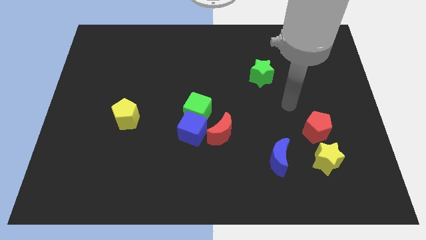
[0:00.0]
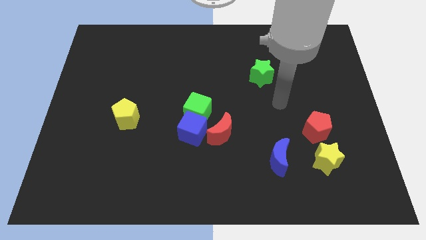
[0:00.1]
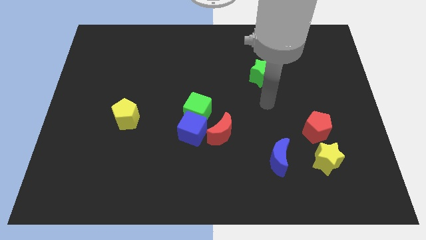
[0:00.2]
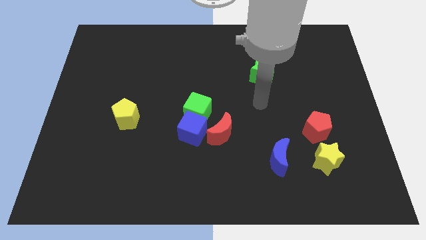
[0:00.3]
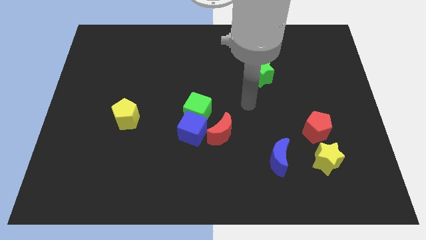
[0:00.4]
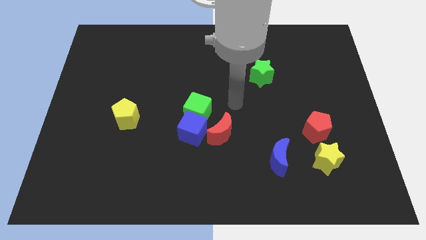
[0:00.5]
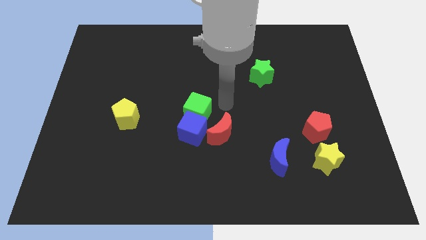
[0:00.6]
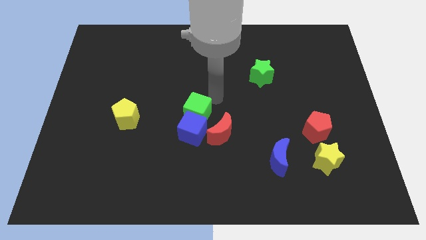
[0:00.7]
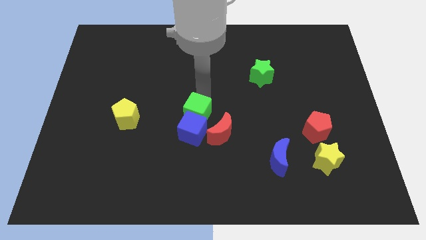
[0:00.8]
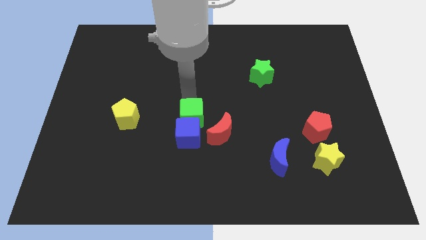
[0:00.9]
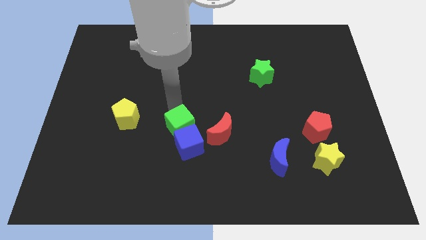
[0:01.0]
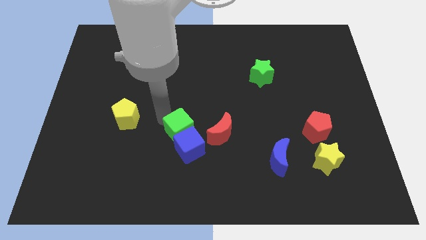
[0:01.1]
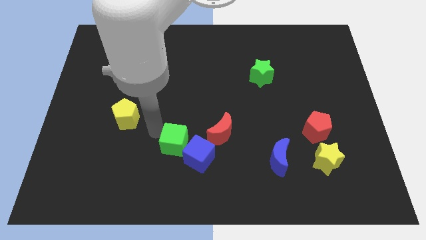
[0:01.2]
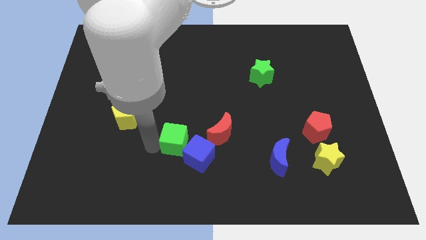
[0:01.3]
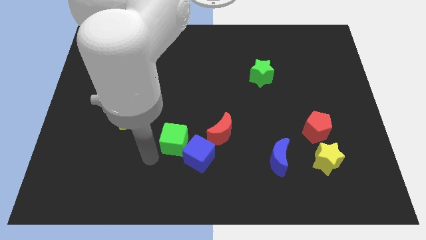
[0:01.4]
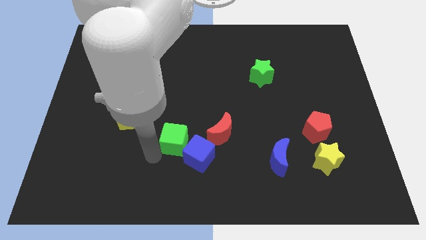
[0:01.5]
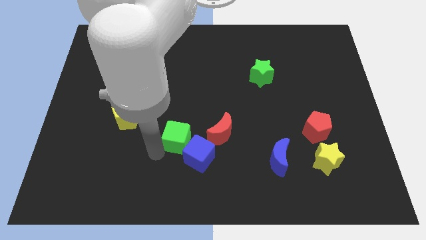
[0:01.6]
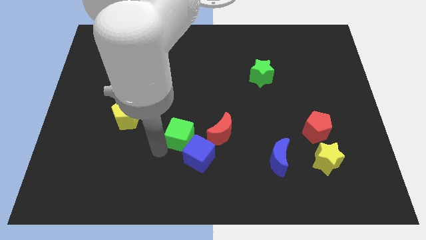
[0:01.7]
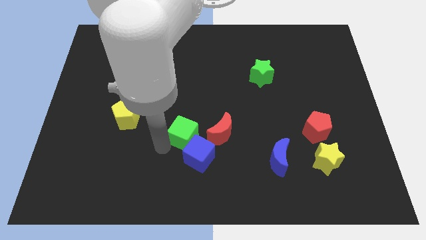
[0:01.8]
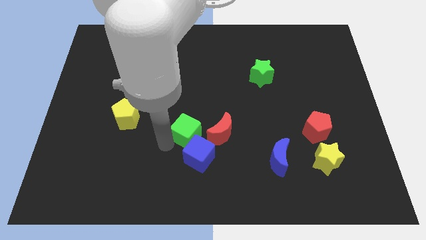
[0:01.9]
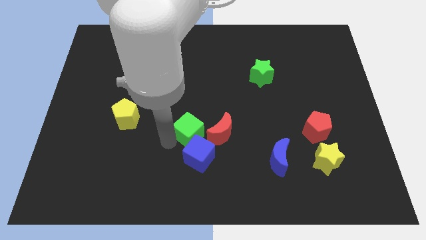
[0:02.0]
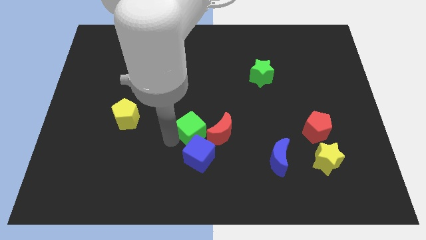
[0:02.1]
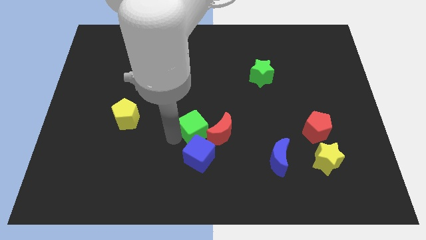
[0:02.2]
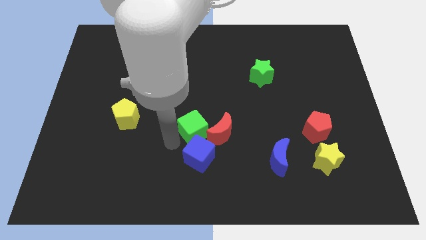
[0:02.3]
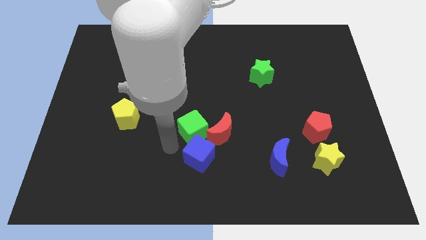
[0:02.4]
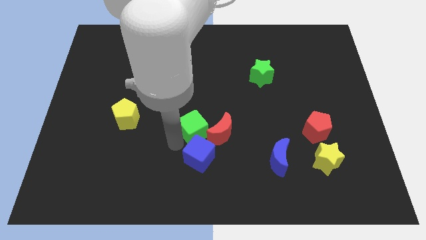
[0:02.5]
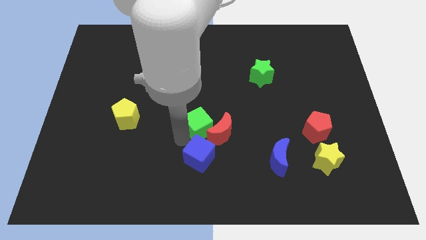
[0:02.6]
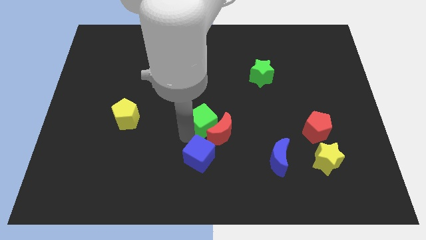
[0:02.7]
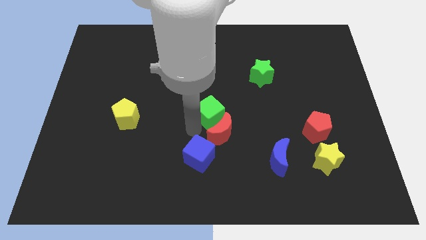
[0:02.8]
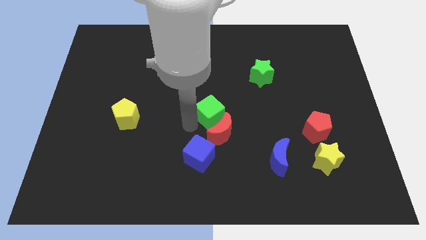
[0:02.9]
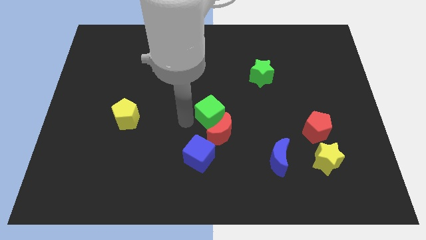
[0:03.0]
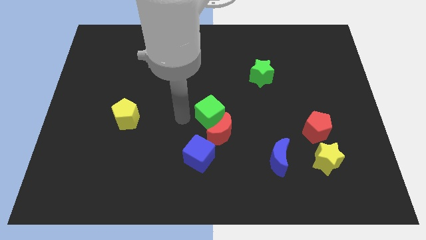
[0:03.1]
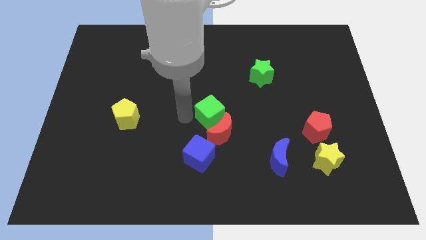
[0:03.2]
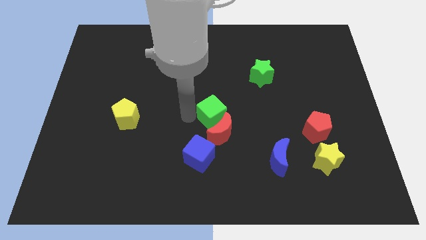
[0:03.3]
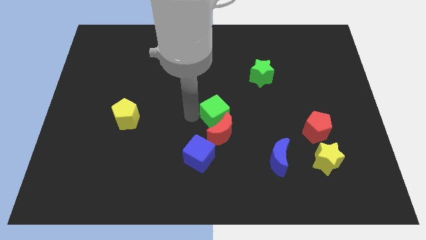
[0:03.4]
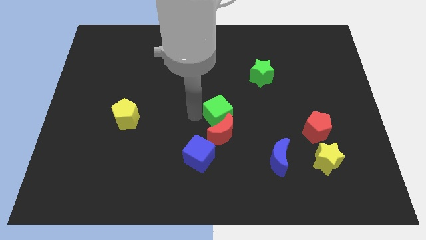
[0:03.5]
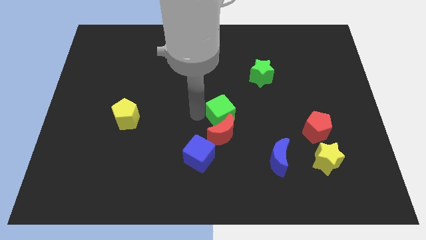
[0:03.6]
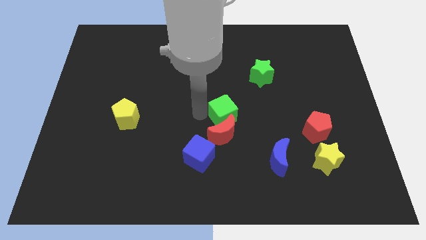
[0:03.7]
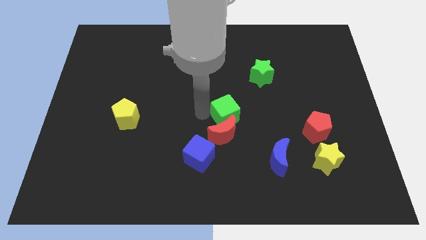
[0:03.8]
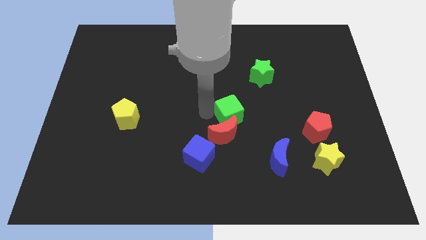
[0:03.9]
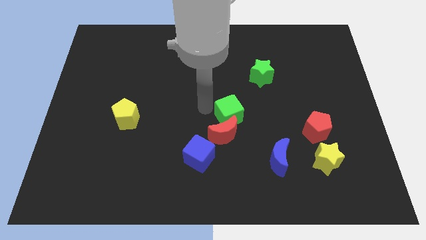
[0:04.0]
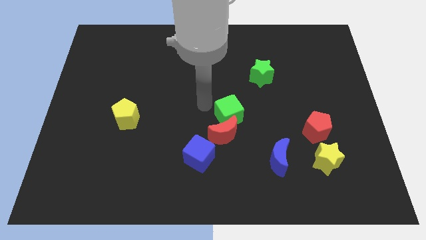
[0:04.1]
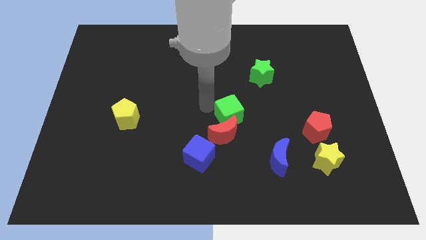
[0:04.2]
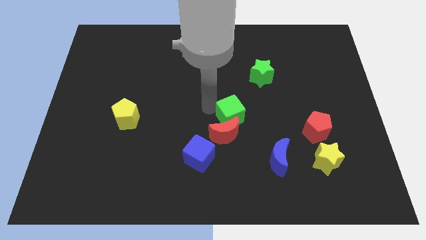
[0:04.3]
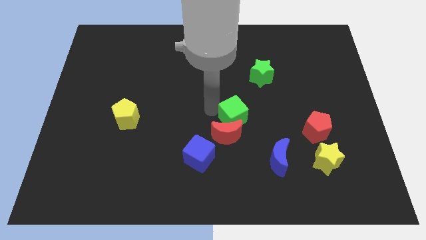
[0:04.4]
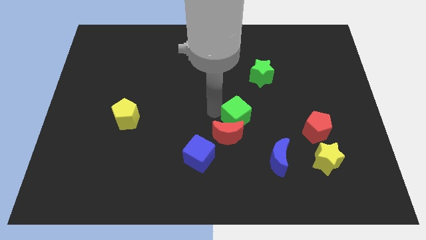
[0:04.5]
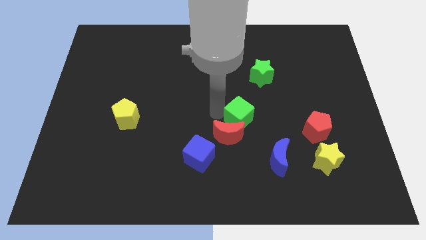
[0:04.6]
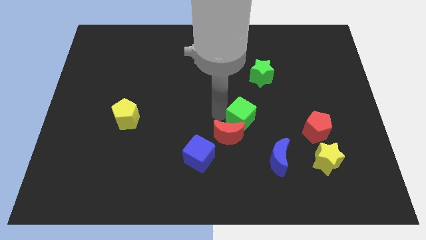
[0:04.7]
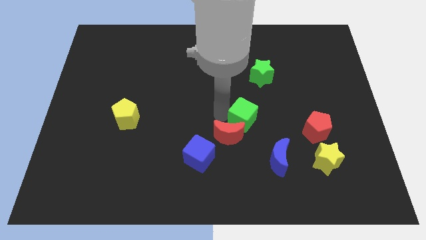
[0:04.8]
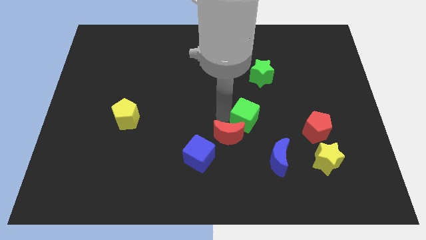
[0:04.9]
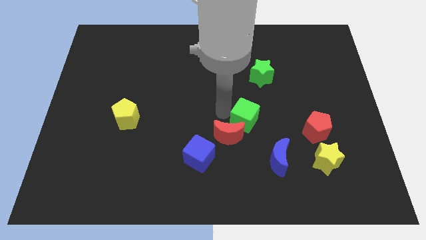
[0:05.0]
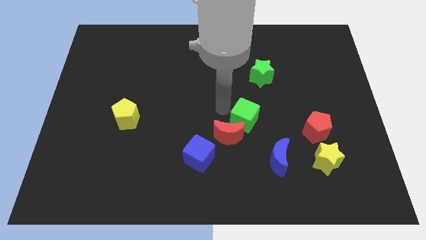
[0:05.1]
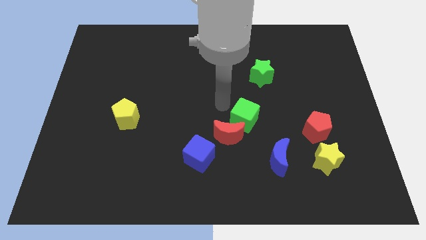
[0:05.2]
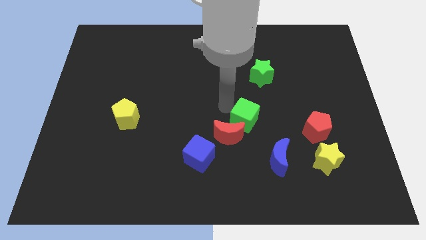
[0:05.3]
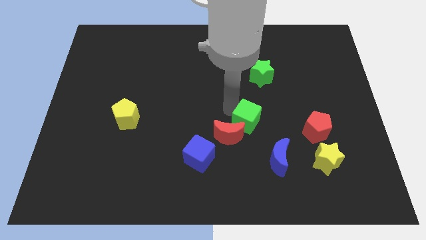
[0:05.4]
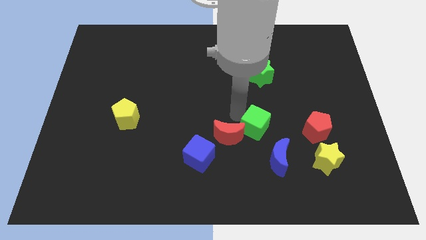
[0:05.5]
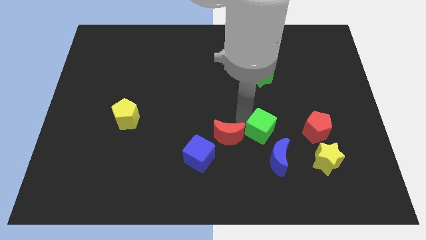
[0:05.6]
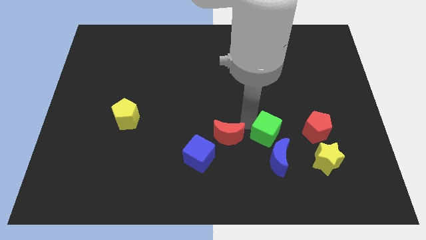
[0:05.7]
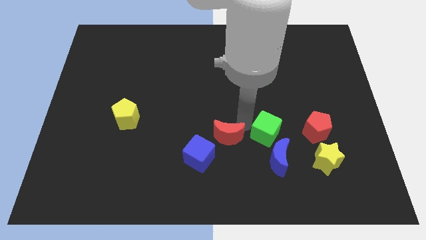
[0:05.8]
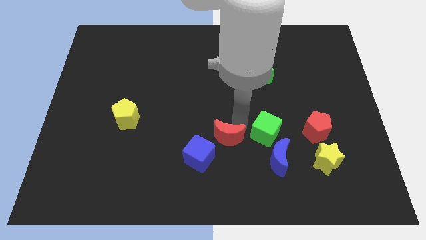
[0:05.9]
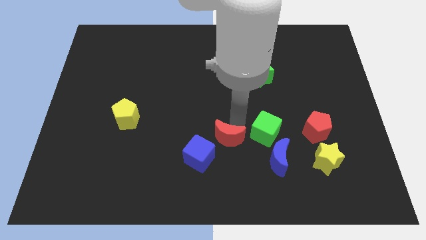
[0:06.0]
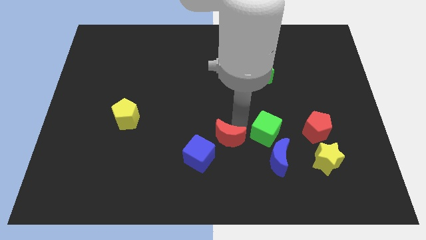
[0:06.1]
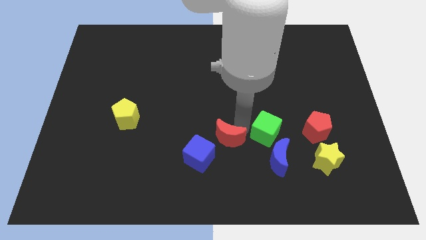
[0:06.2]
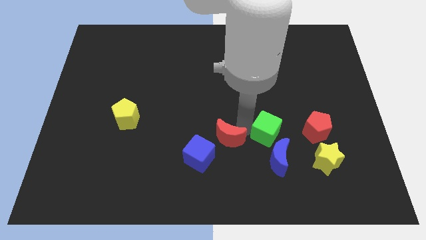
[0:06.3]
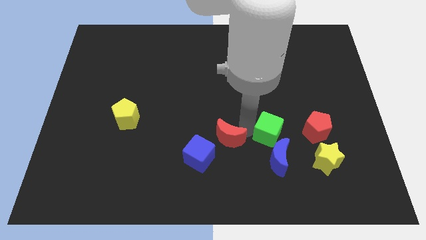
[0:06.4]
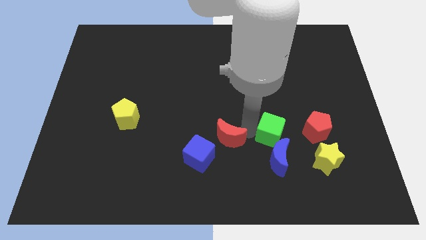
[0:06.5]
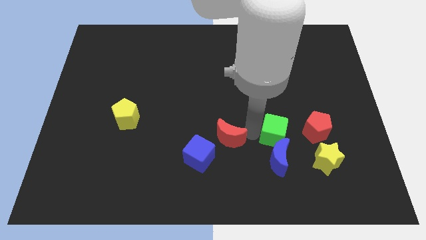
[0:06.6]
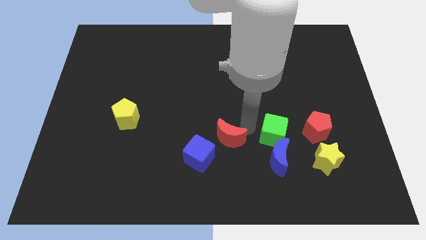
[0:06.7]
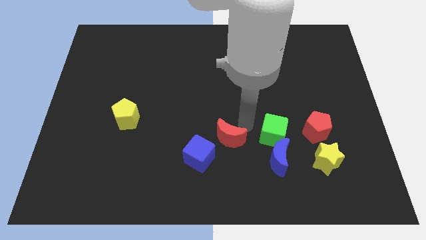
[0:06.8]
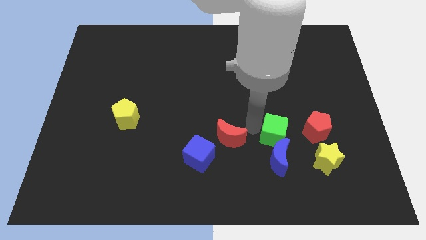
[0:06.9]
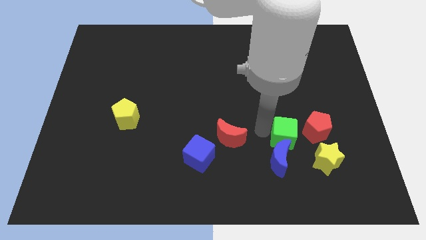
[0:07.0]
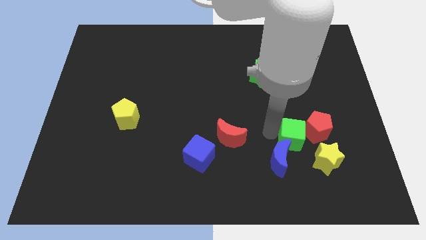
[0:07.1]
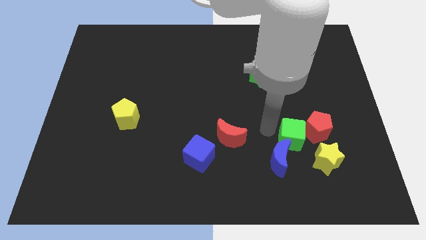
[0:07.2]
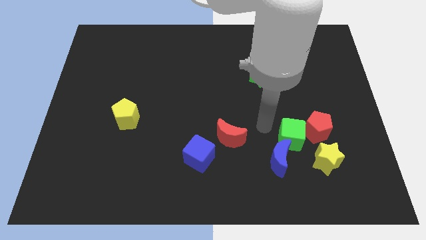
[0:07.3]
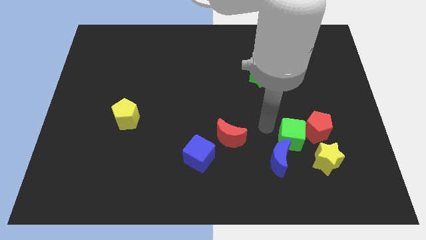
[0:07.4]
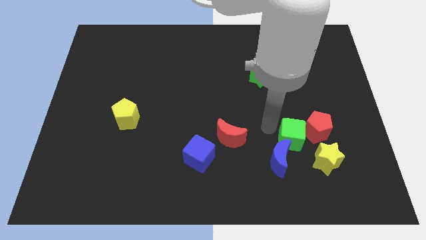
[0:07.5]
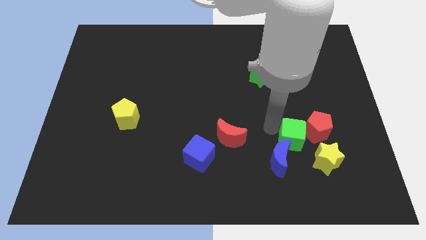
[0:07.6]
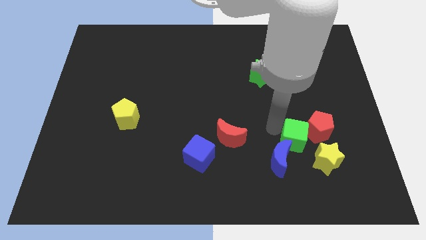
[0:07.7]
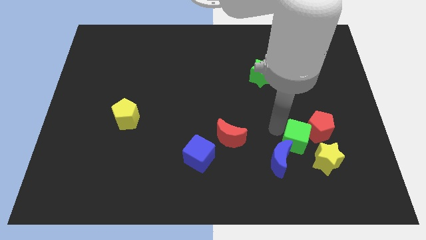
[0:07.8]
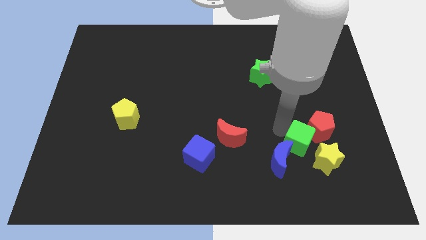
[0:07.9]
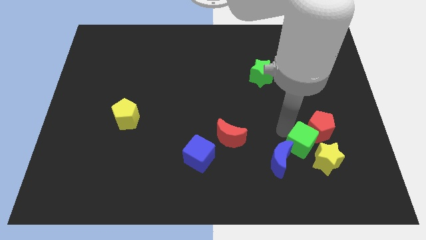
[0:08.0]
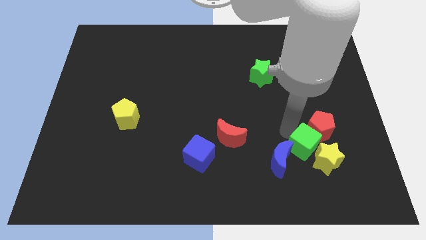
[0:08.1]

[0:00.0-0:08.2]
move the green cube next to the yellow star
